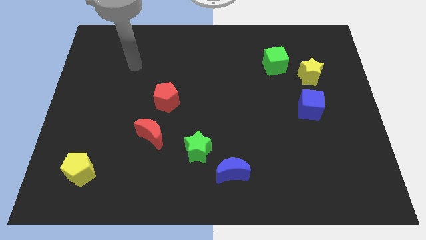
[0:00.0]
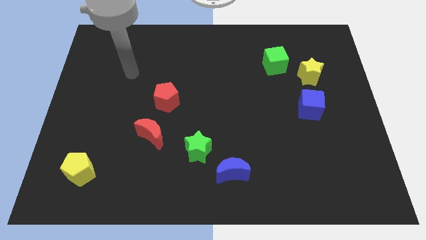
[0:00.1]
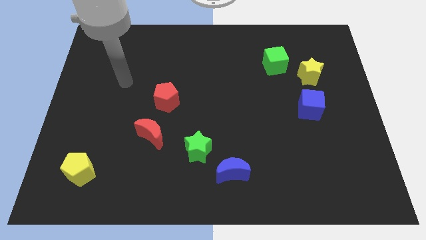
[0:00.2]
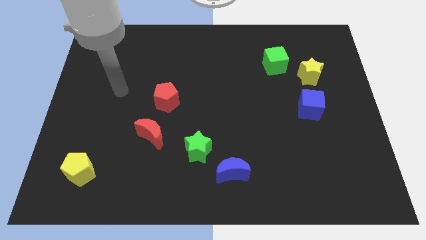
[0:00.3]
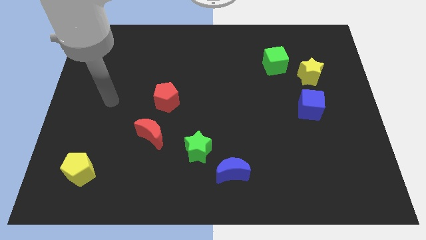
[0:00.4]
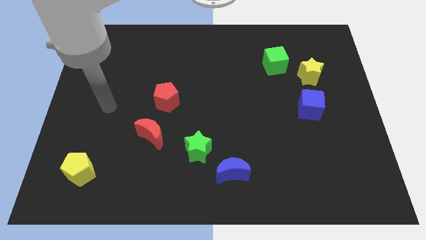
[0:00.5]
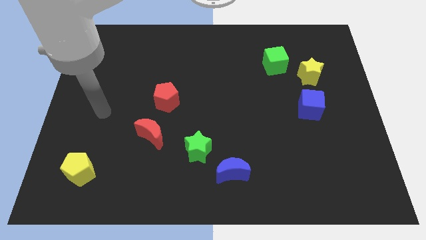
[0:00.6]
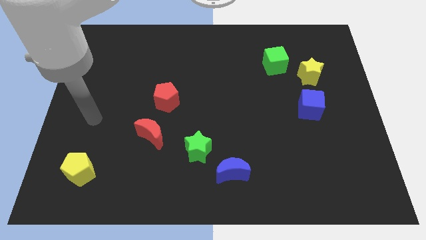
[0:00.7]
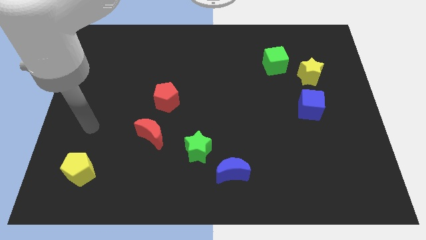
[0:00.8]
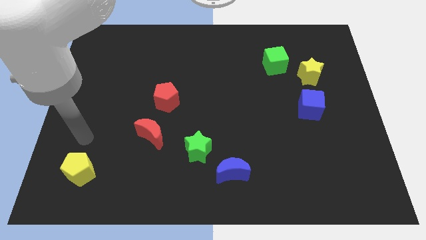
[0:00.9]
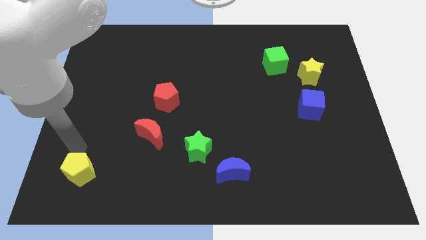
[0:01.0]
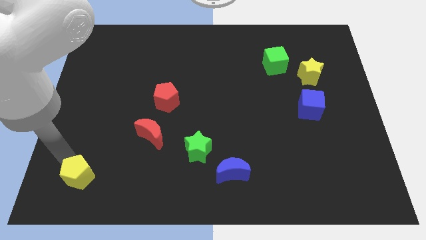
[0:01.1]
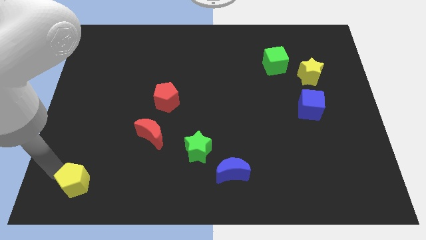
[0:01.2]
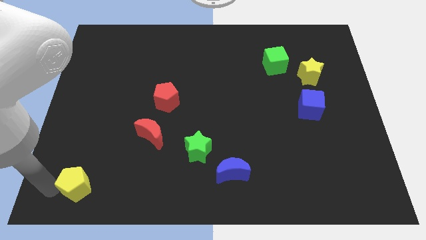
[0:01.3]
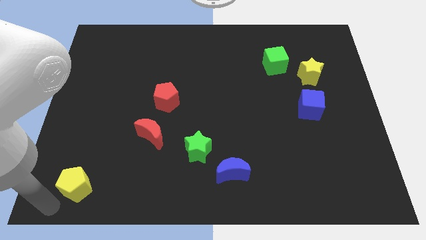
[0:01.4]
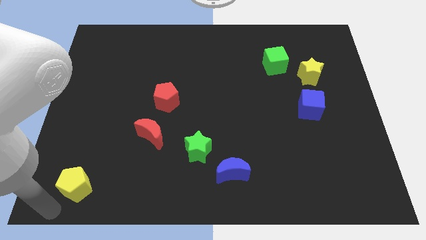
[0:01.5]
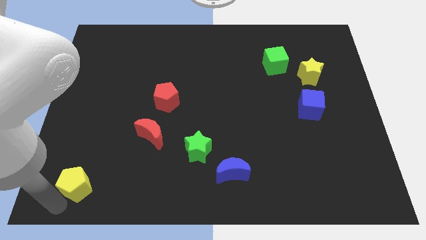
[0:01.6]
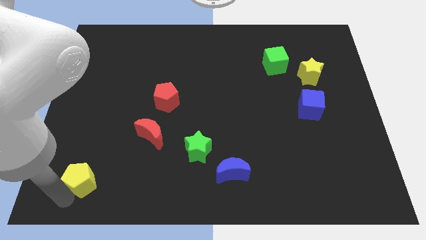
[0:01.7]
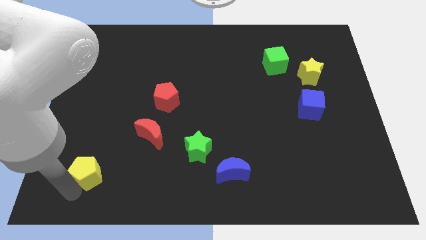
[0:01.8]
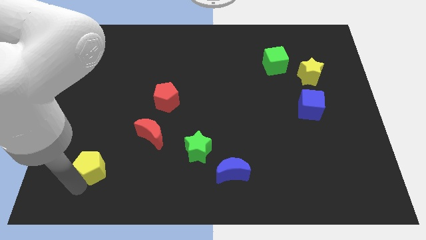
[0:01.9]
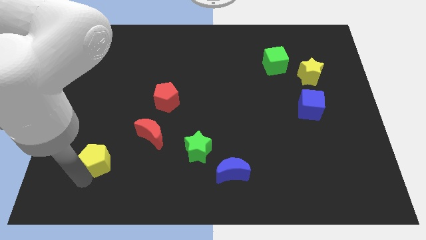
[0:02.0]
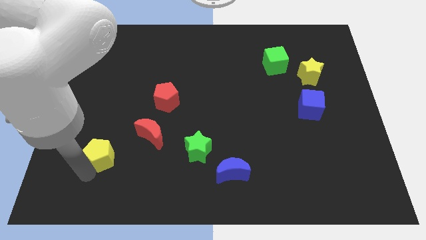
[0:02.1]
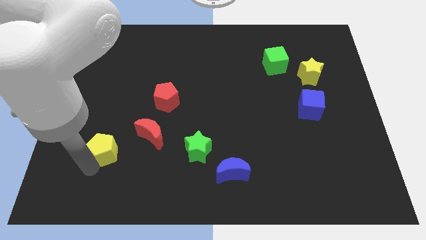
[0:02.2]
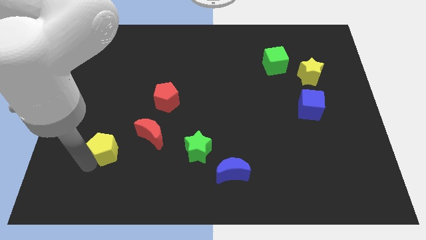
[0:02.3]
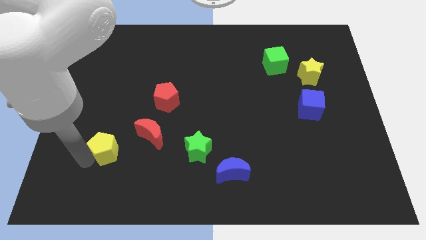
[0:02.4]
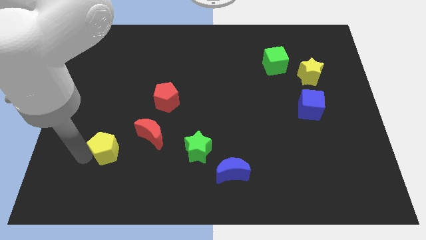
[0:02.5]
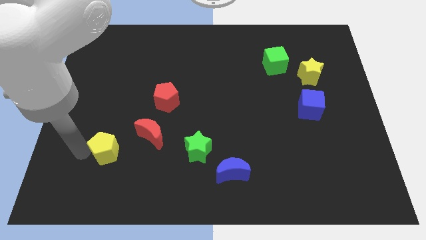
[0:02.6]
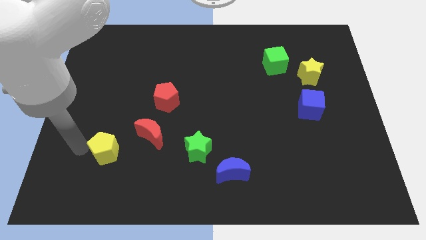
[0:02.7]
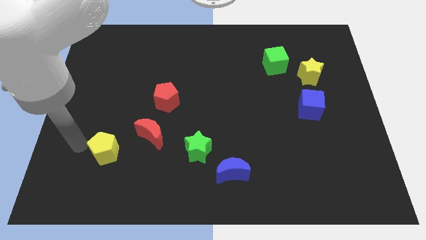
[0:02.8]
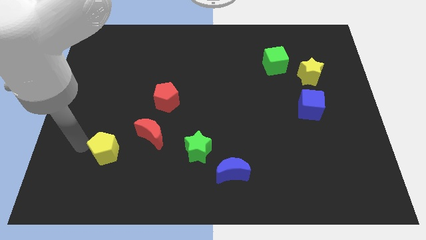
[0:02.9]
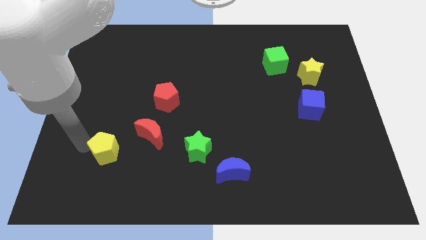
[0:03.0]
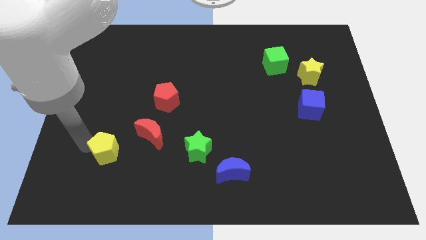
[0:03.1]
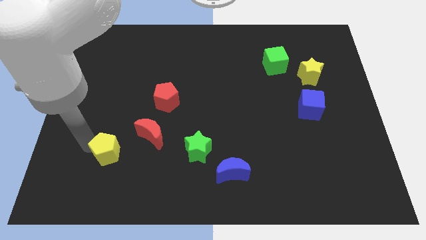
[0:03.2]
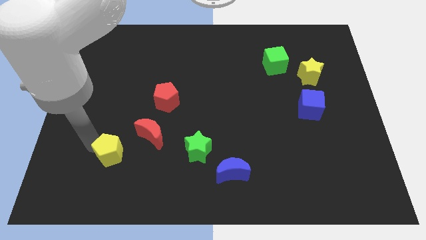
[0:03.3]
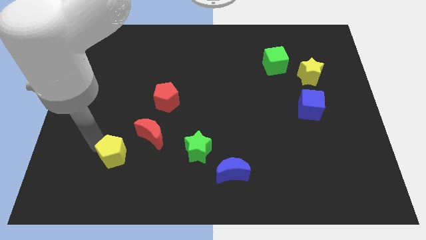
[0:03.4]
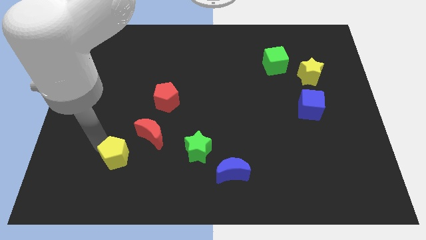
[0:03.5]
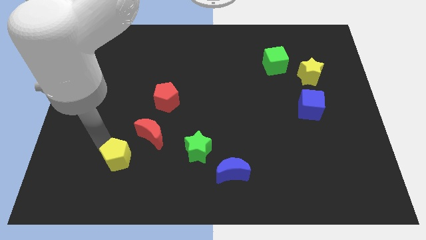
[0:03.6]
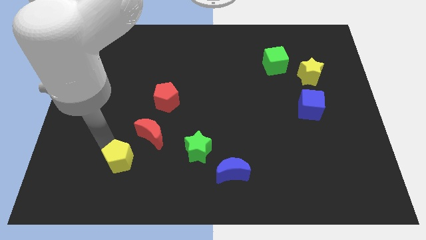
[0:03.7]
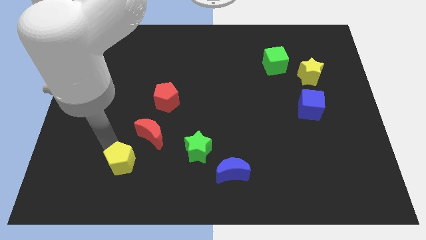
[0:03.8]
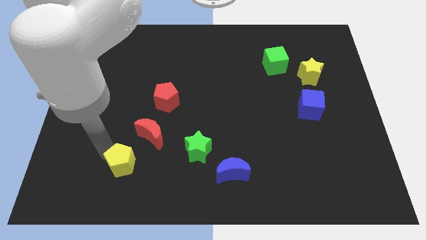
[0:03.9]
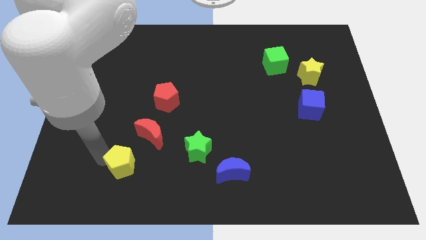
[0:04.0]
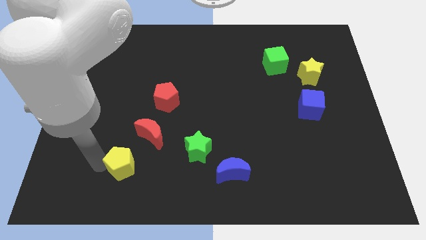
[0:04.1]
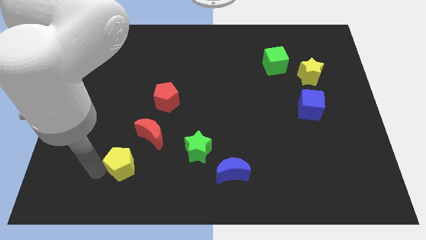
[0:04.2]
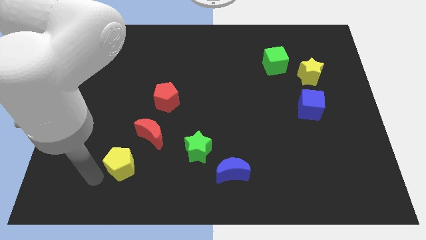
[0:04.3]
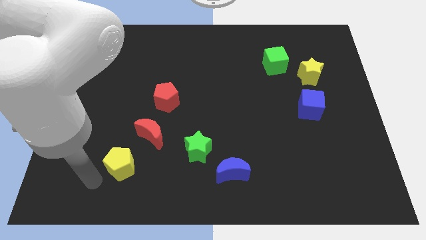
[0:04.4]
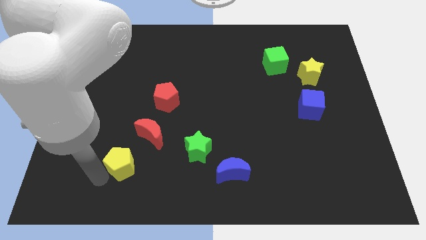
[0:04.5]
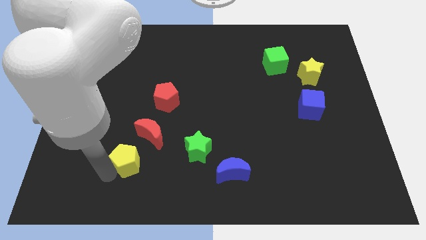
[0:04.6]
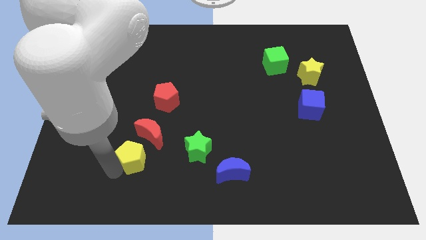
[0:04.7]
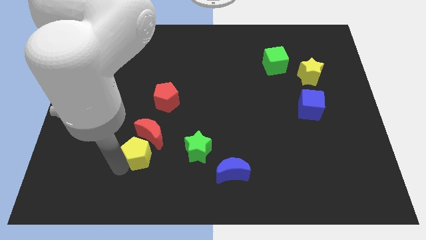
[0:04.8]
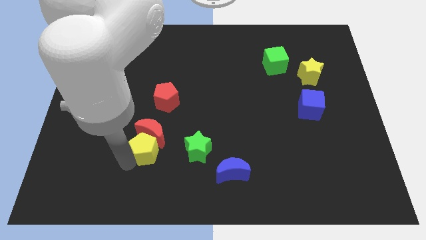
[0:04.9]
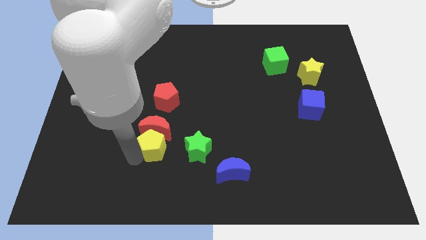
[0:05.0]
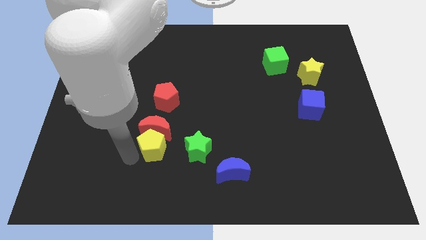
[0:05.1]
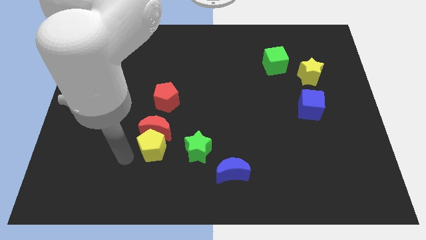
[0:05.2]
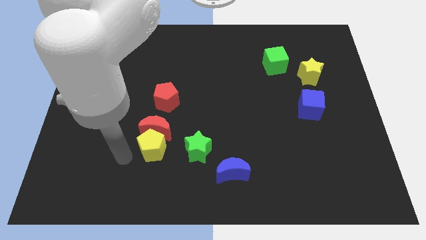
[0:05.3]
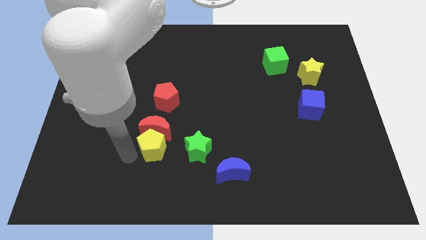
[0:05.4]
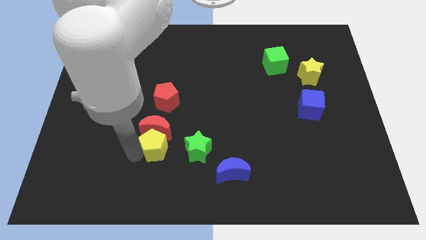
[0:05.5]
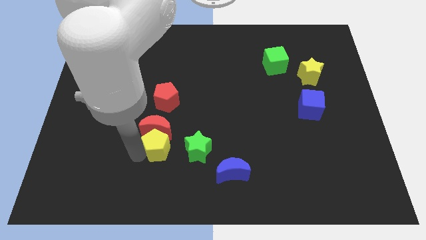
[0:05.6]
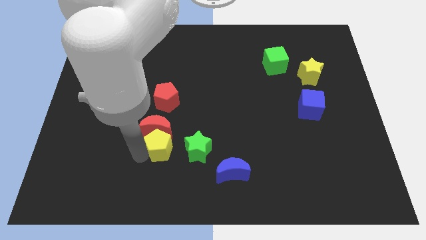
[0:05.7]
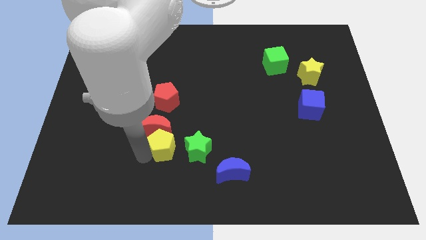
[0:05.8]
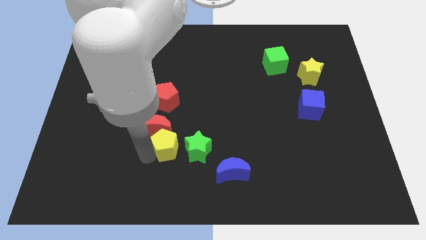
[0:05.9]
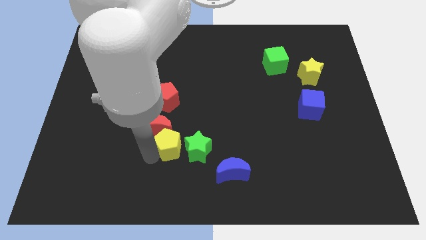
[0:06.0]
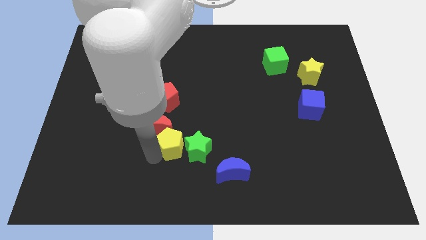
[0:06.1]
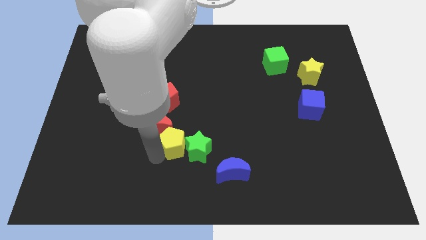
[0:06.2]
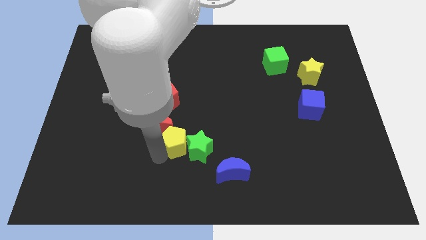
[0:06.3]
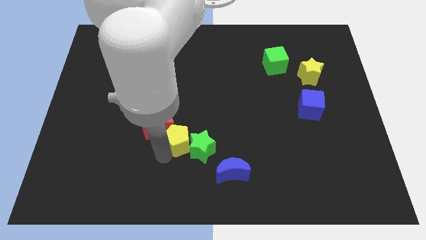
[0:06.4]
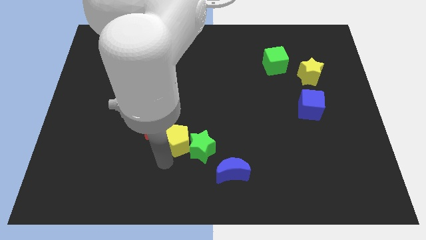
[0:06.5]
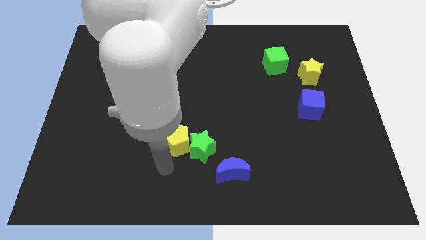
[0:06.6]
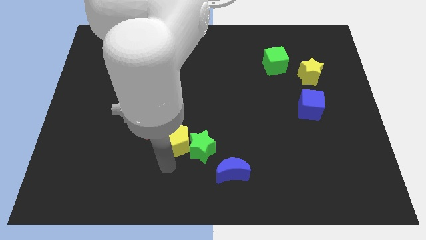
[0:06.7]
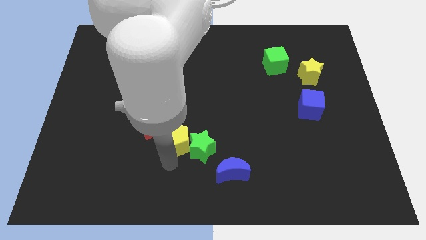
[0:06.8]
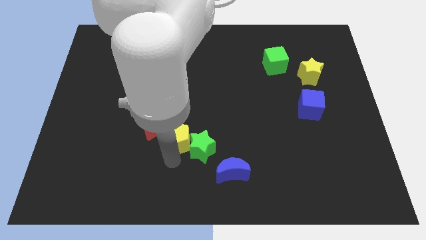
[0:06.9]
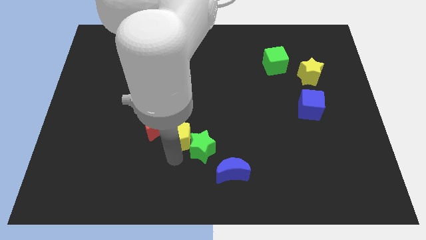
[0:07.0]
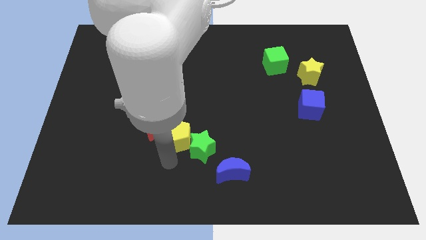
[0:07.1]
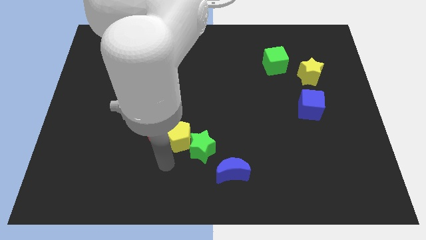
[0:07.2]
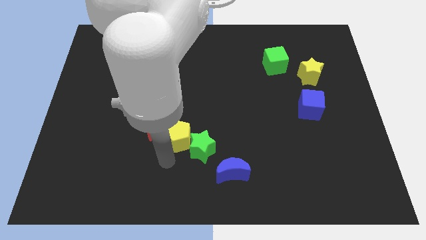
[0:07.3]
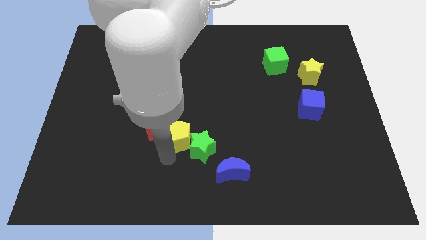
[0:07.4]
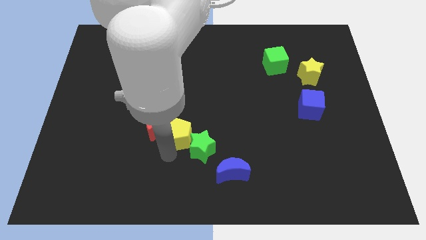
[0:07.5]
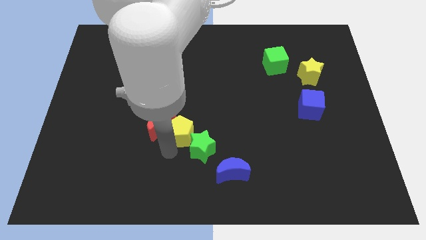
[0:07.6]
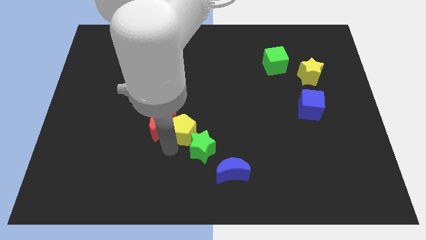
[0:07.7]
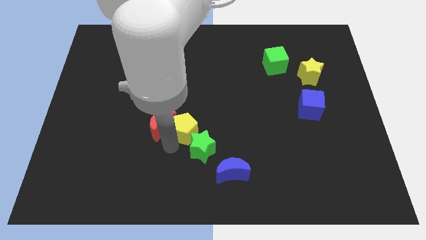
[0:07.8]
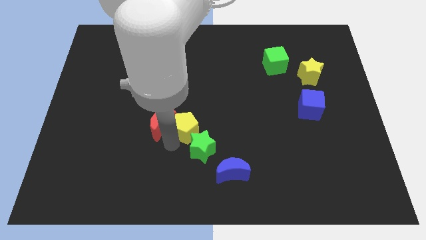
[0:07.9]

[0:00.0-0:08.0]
push the yellow pentagon up and then right
